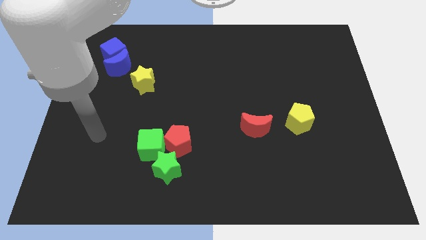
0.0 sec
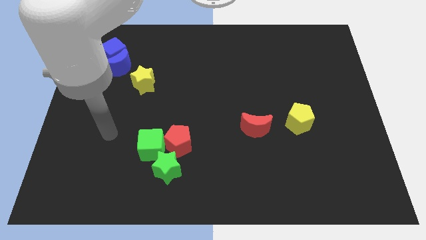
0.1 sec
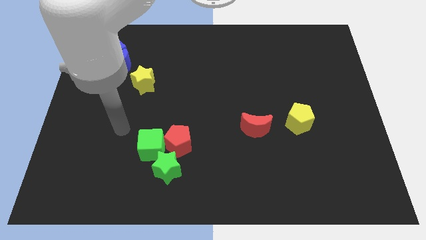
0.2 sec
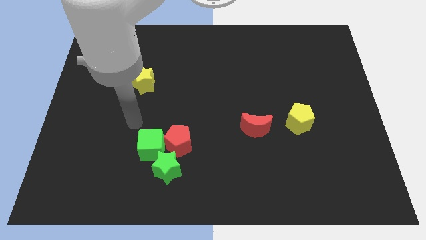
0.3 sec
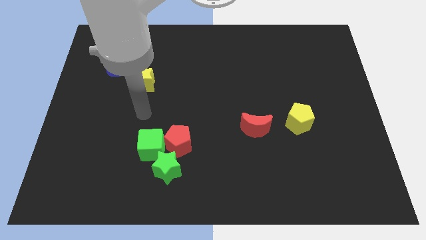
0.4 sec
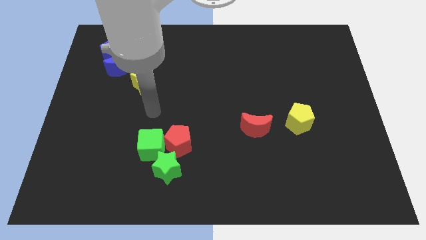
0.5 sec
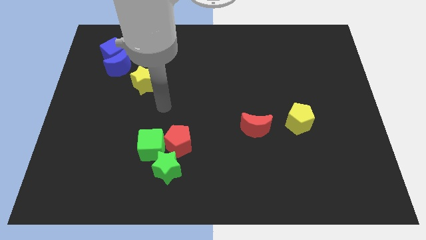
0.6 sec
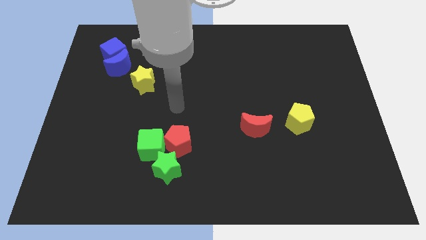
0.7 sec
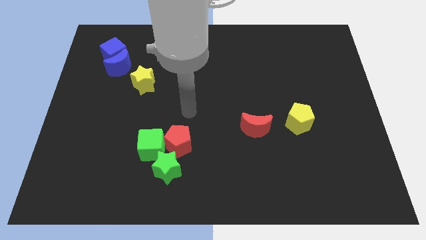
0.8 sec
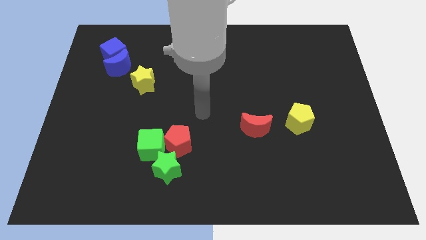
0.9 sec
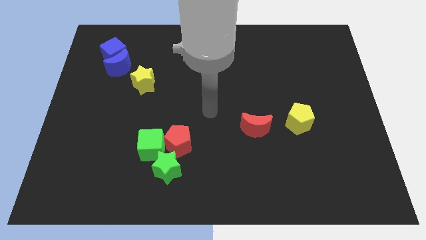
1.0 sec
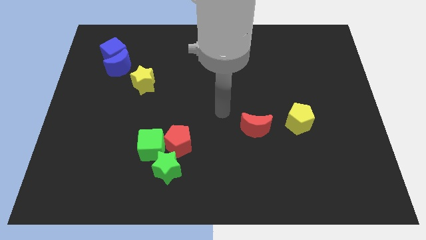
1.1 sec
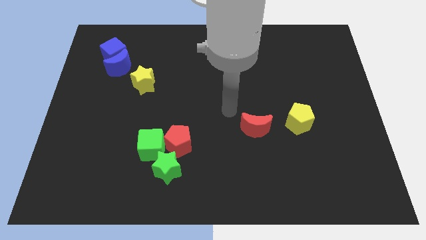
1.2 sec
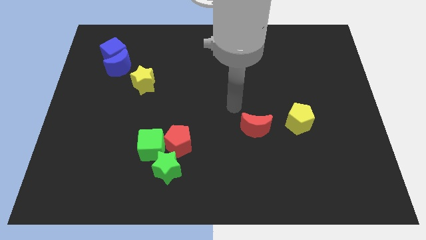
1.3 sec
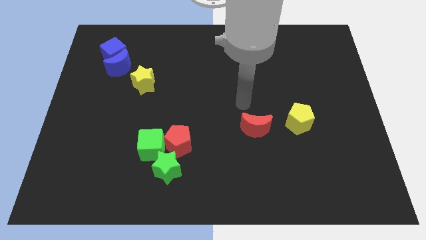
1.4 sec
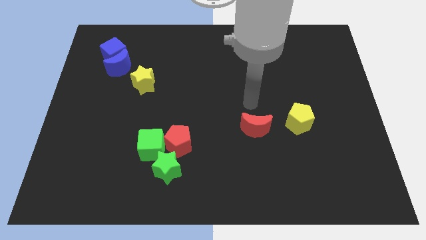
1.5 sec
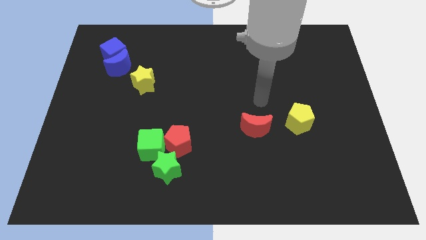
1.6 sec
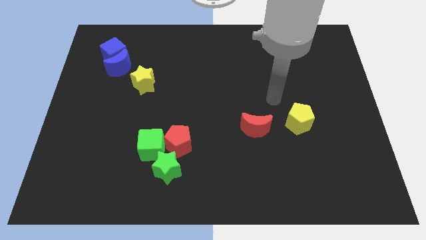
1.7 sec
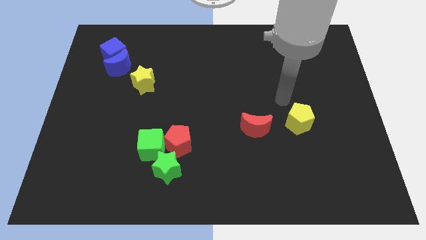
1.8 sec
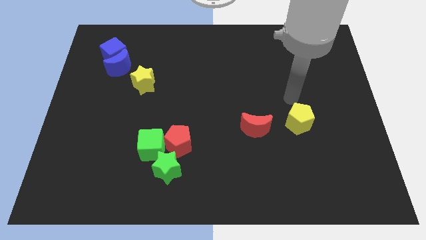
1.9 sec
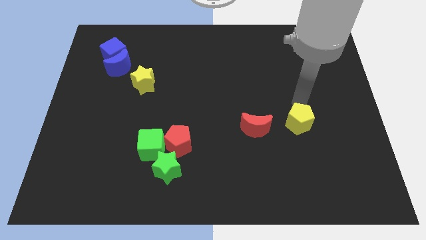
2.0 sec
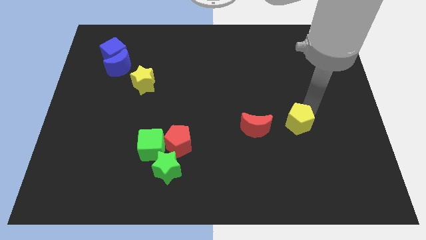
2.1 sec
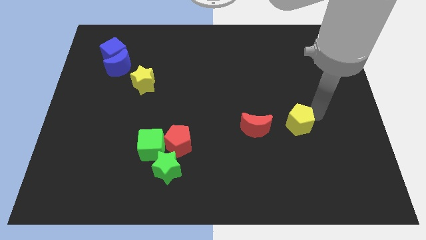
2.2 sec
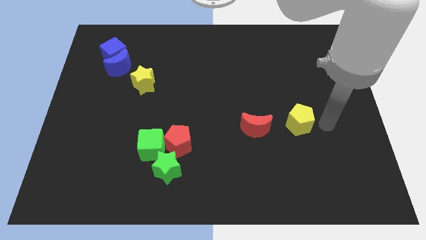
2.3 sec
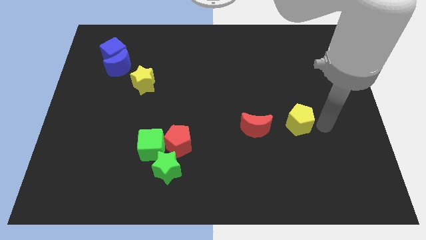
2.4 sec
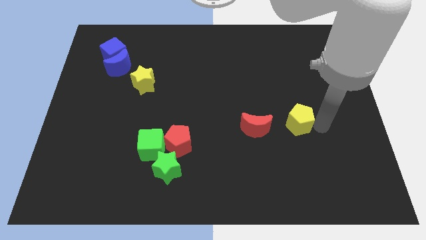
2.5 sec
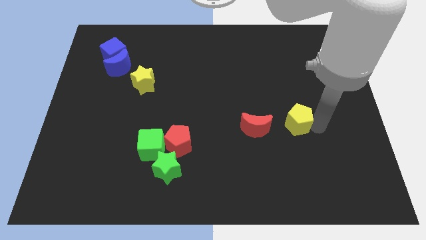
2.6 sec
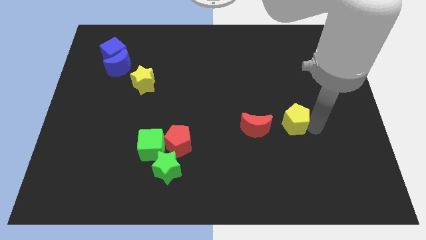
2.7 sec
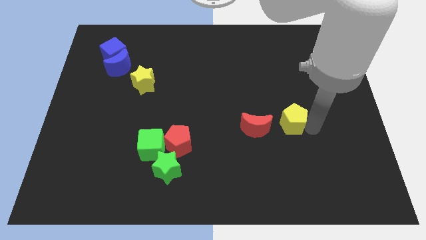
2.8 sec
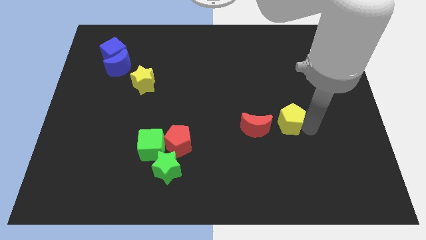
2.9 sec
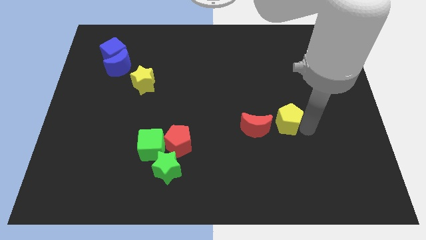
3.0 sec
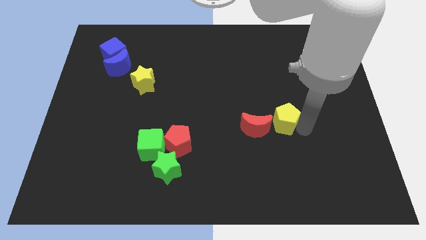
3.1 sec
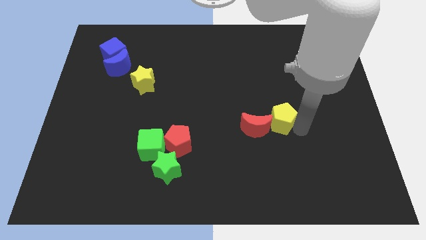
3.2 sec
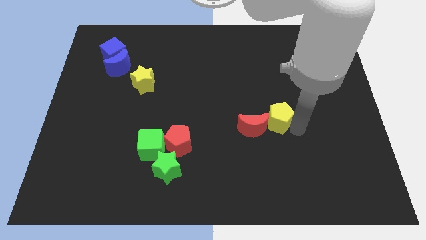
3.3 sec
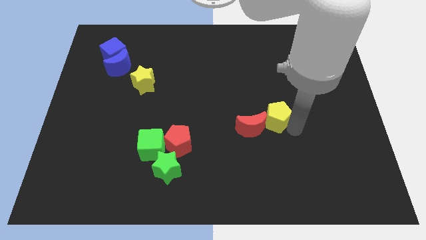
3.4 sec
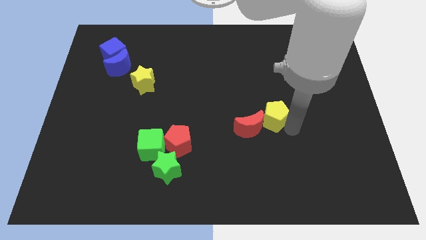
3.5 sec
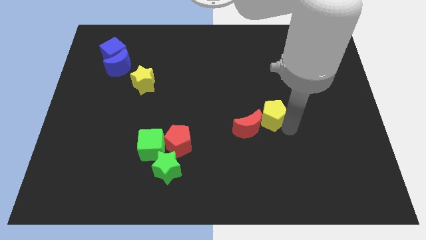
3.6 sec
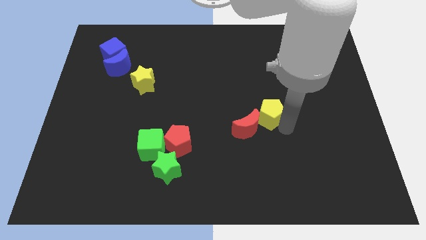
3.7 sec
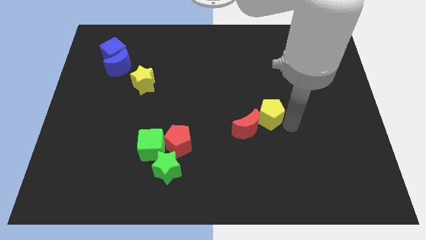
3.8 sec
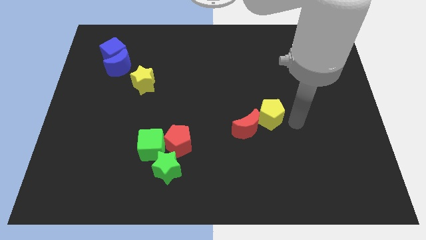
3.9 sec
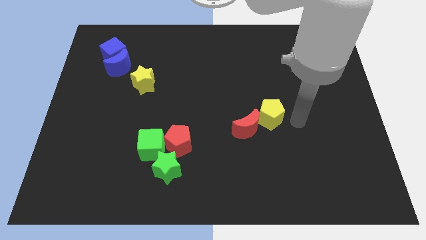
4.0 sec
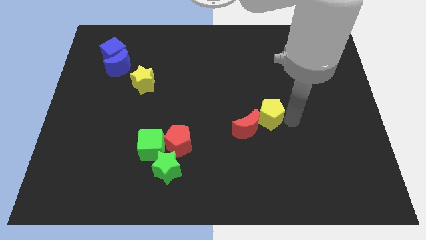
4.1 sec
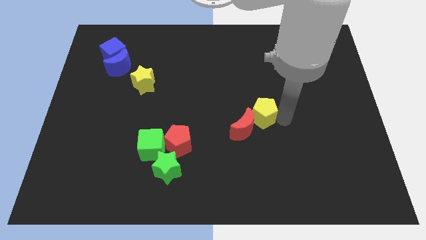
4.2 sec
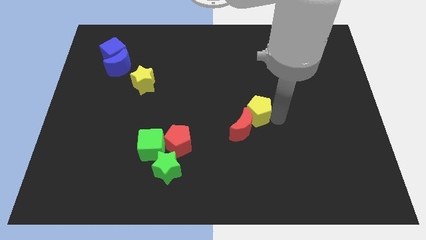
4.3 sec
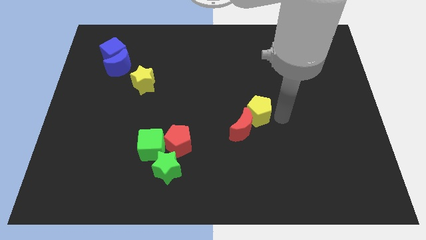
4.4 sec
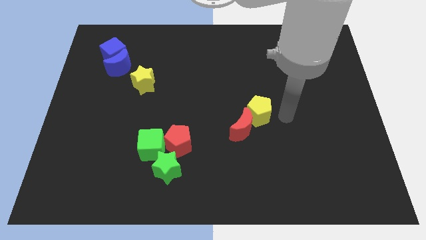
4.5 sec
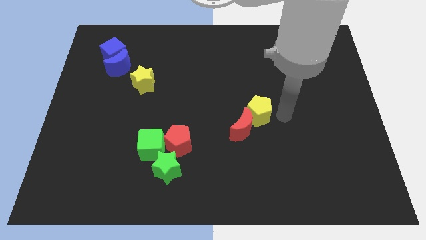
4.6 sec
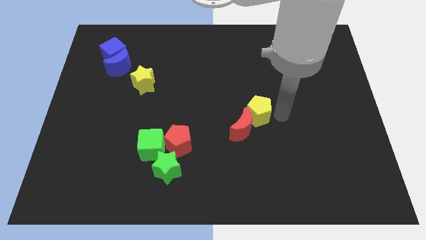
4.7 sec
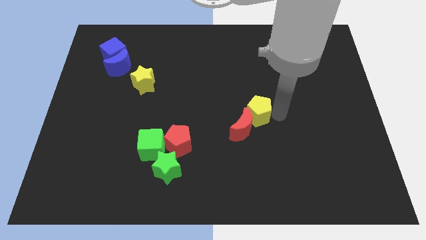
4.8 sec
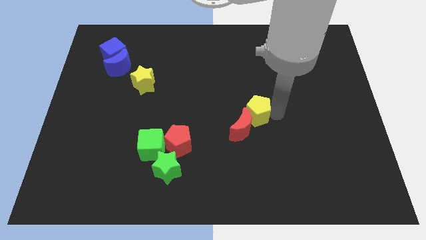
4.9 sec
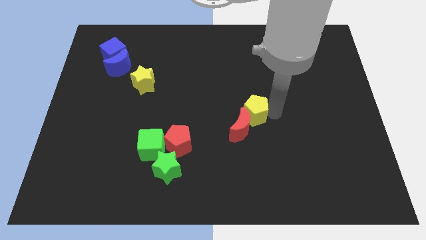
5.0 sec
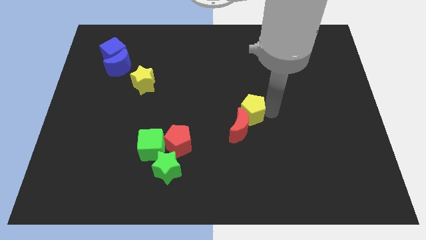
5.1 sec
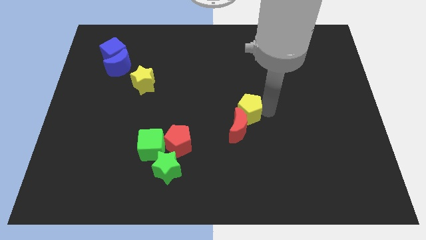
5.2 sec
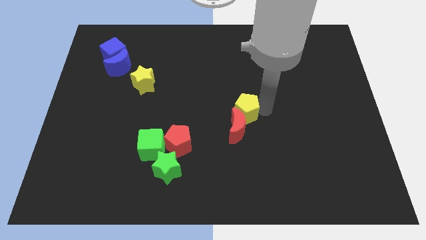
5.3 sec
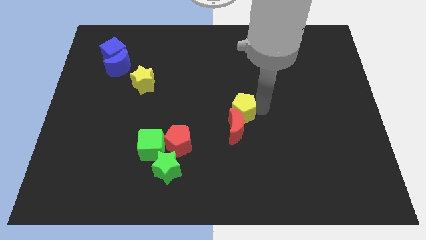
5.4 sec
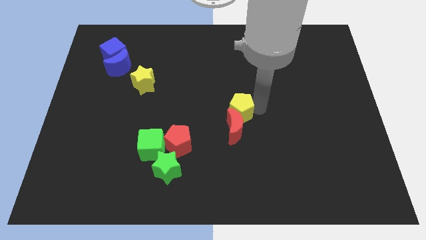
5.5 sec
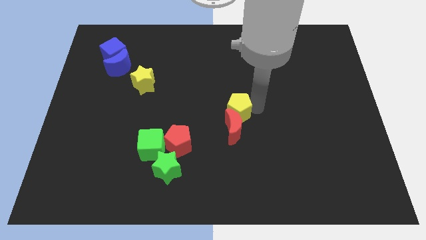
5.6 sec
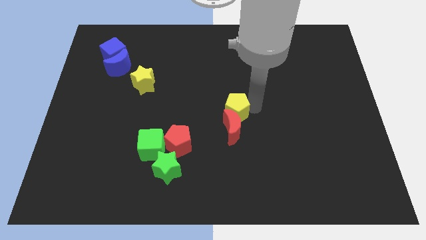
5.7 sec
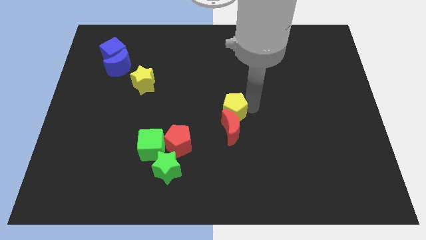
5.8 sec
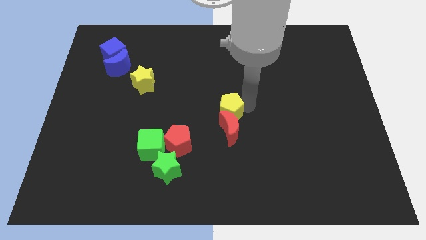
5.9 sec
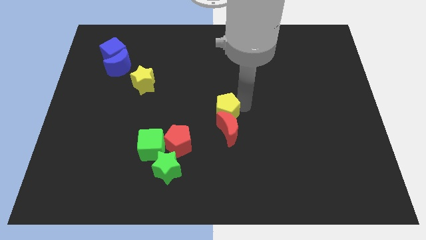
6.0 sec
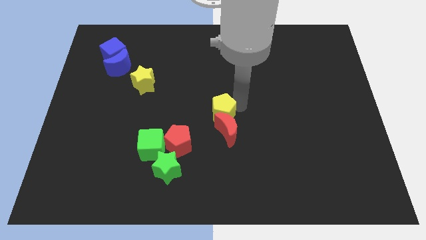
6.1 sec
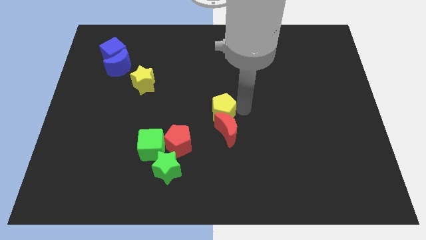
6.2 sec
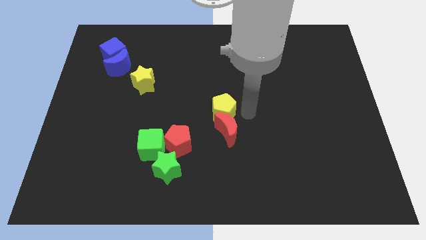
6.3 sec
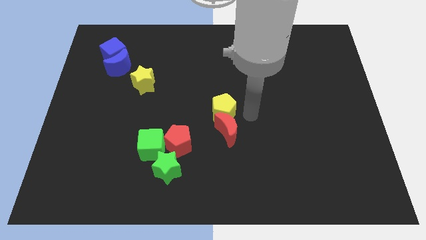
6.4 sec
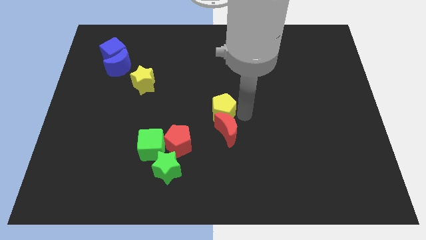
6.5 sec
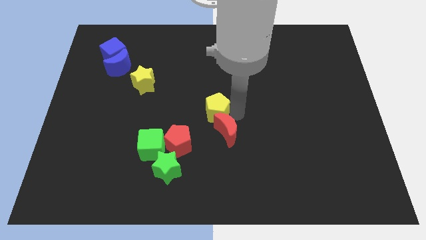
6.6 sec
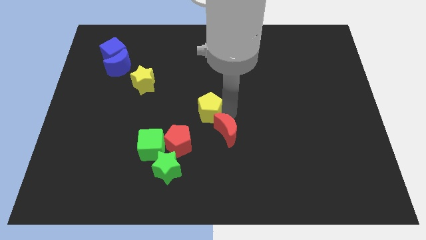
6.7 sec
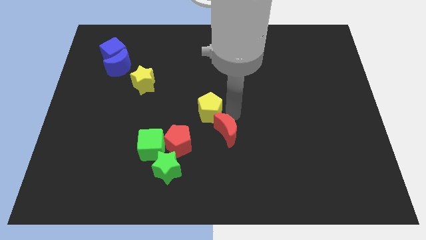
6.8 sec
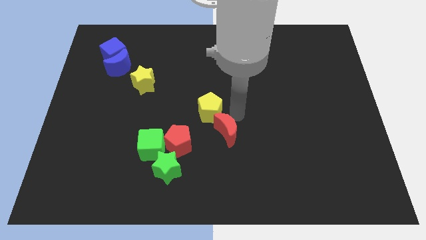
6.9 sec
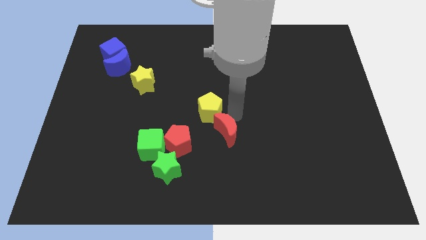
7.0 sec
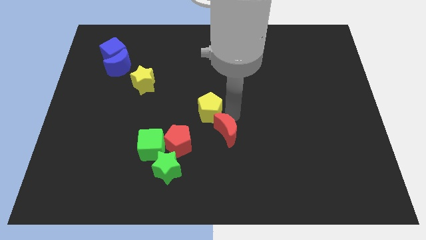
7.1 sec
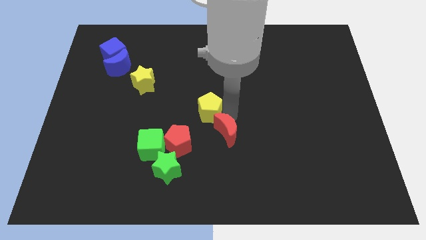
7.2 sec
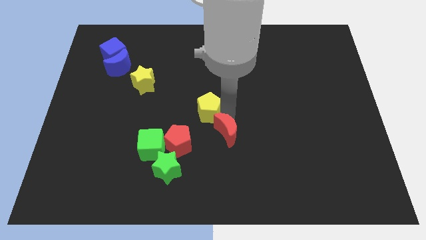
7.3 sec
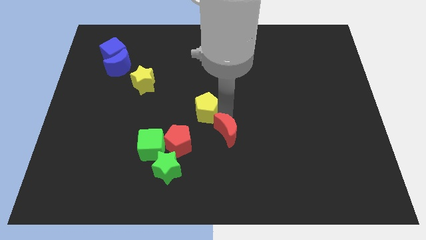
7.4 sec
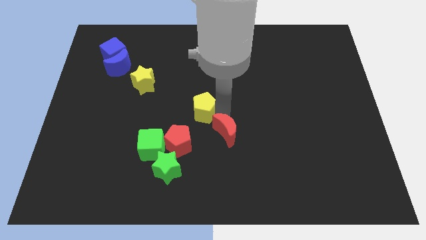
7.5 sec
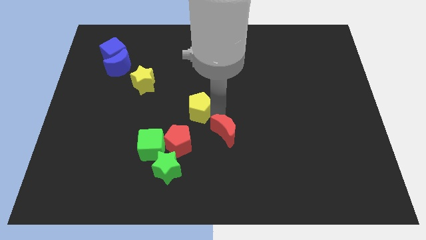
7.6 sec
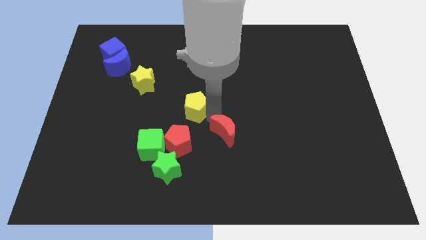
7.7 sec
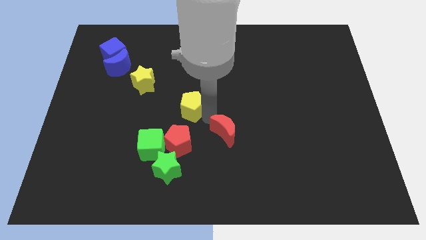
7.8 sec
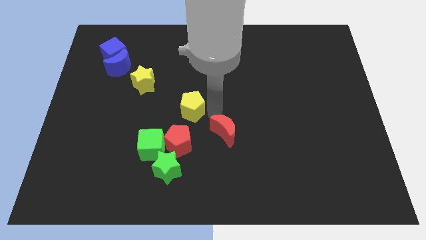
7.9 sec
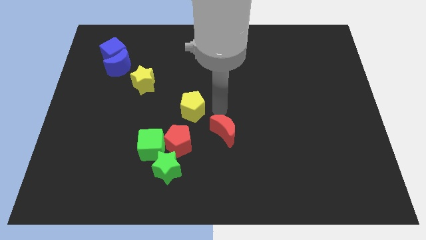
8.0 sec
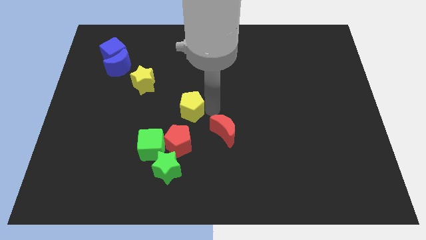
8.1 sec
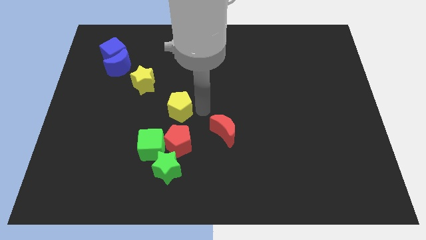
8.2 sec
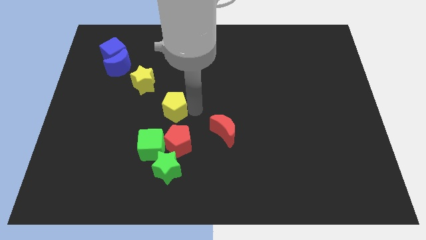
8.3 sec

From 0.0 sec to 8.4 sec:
move the yellow pentagon to the top of the green cube
